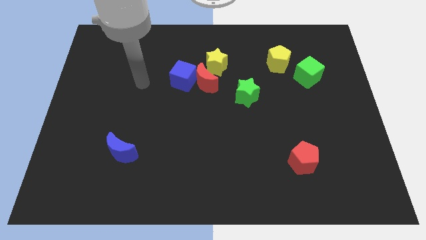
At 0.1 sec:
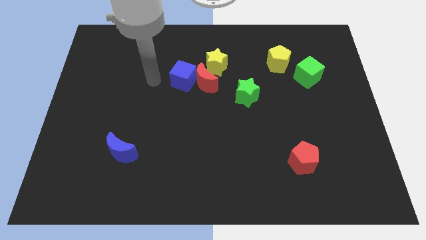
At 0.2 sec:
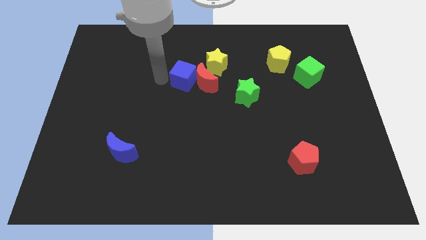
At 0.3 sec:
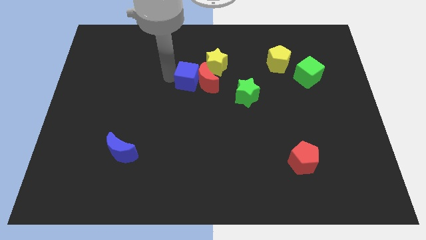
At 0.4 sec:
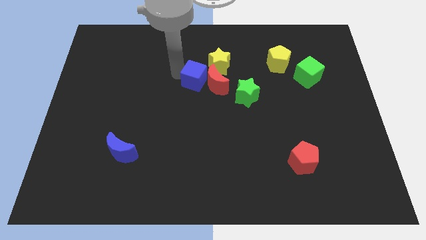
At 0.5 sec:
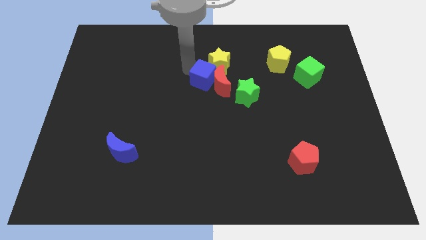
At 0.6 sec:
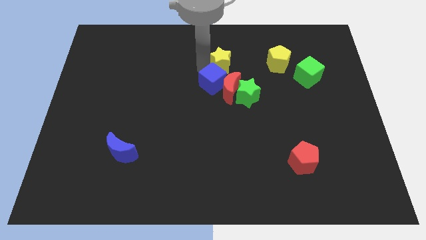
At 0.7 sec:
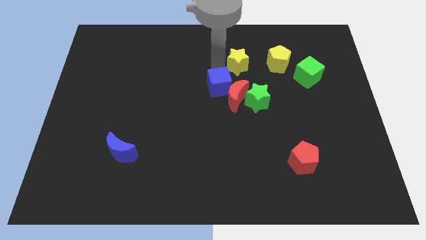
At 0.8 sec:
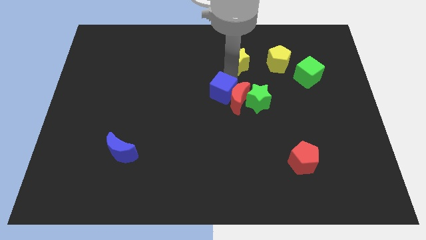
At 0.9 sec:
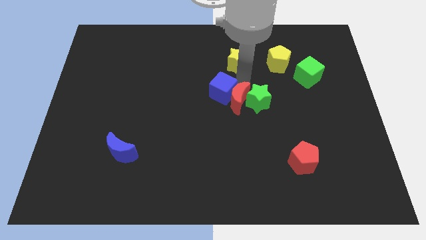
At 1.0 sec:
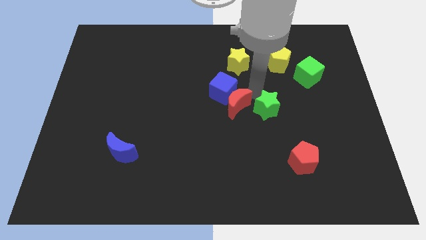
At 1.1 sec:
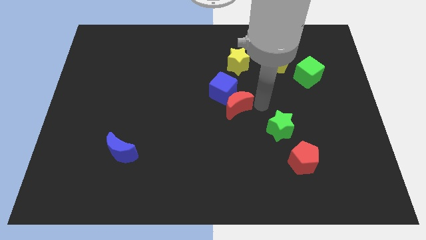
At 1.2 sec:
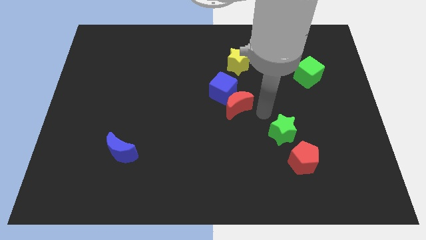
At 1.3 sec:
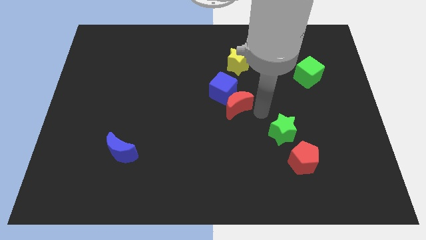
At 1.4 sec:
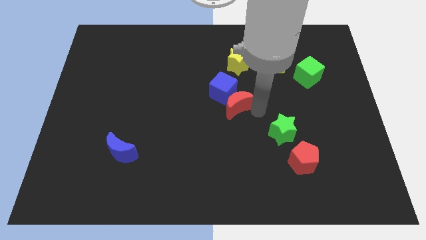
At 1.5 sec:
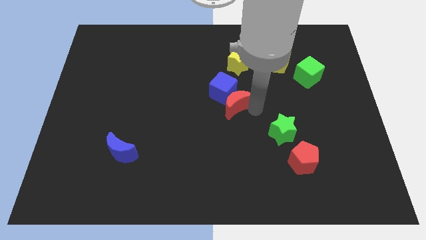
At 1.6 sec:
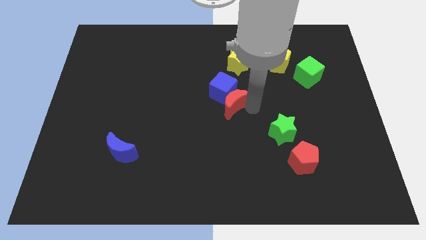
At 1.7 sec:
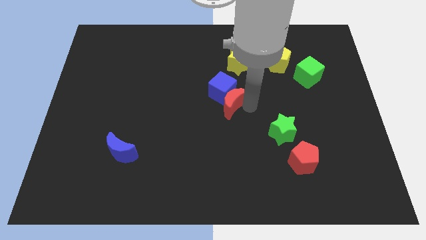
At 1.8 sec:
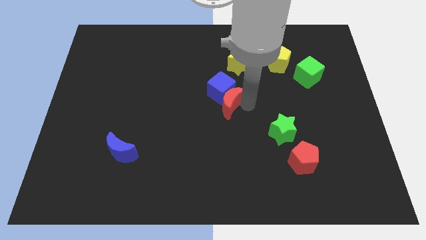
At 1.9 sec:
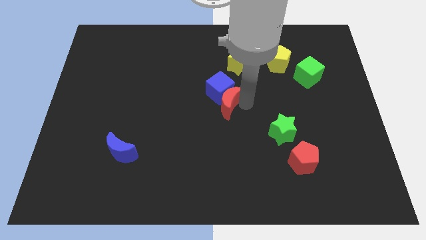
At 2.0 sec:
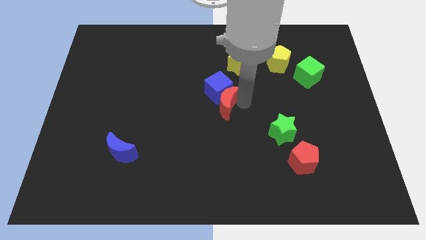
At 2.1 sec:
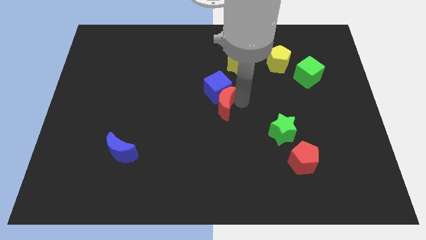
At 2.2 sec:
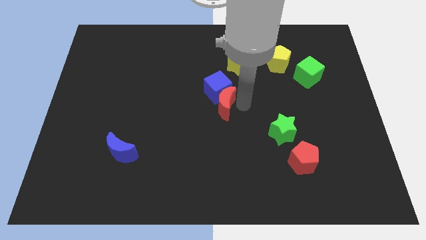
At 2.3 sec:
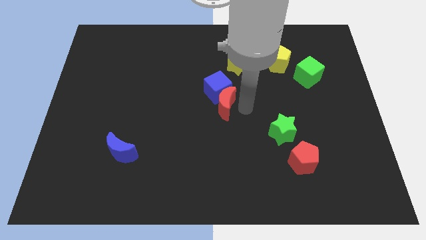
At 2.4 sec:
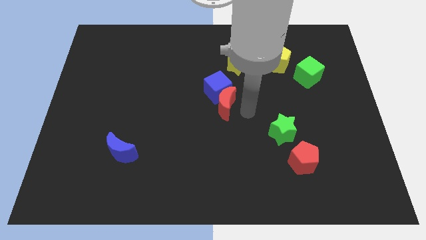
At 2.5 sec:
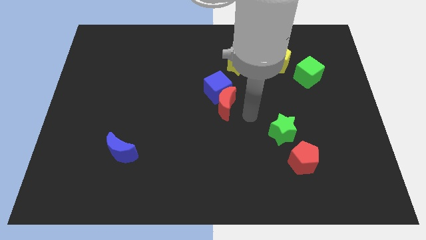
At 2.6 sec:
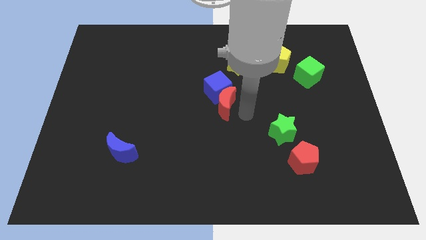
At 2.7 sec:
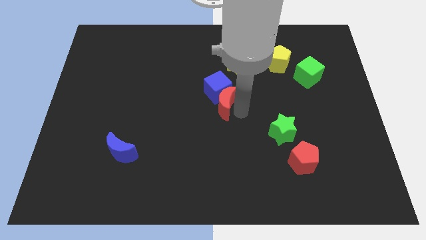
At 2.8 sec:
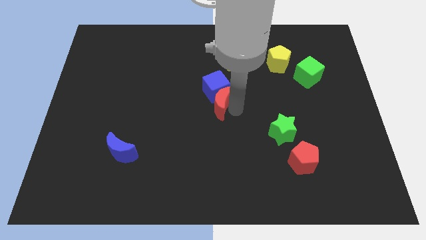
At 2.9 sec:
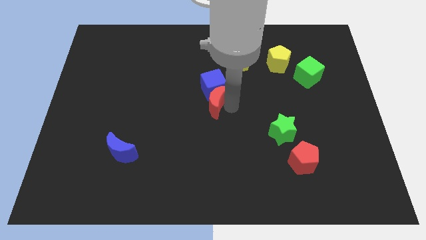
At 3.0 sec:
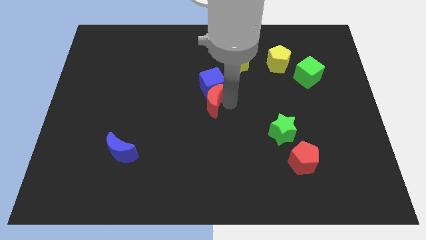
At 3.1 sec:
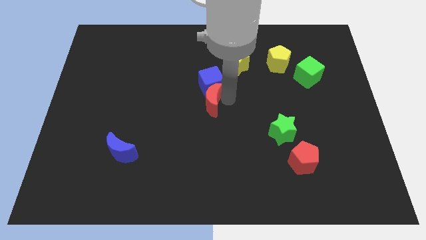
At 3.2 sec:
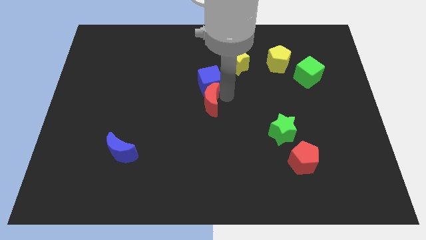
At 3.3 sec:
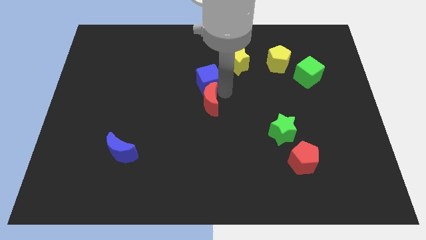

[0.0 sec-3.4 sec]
move the red moon away from the blue cube and yellow star

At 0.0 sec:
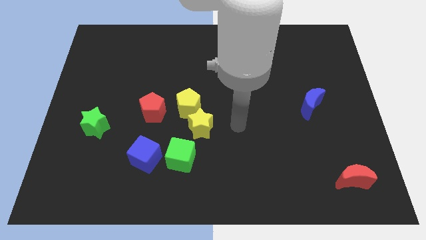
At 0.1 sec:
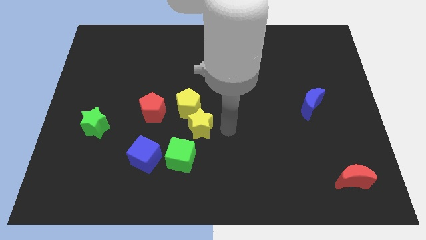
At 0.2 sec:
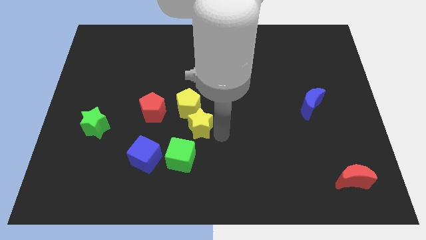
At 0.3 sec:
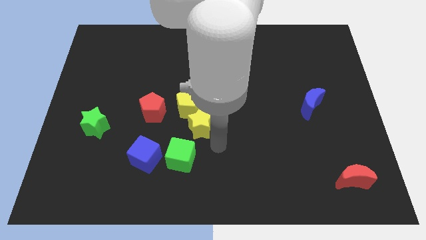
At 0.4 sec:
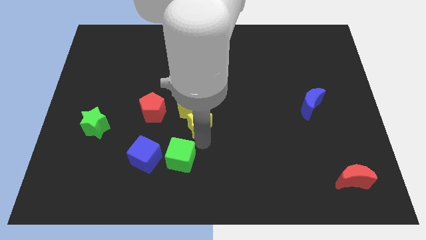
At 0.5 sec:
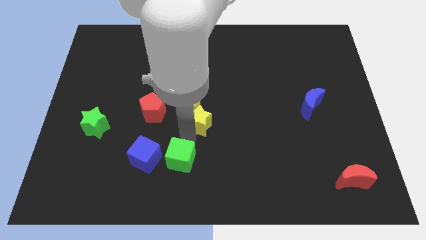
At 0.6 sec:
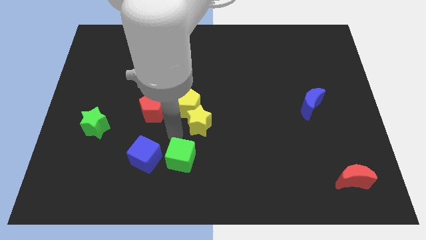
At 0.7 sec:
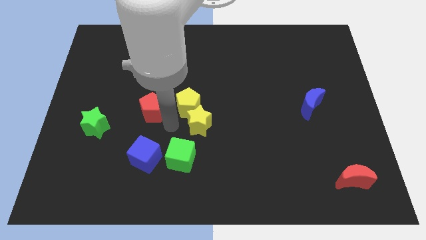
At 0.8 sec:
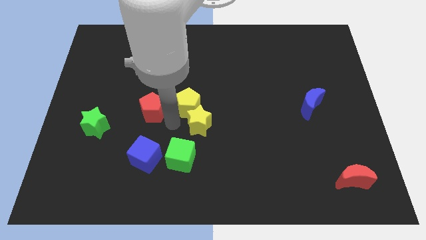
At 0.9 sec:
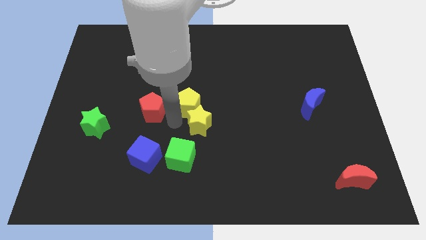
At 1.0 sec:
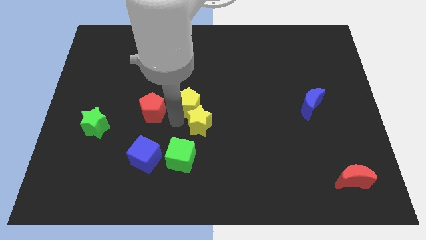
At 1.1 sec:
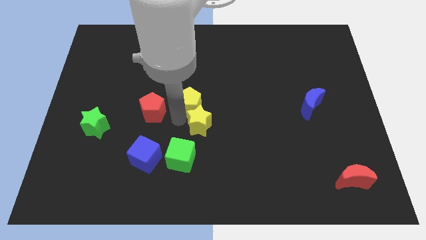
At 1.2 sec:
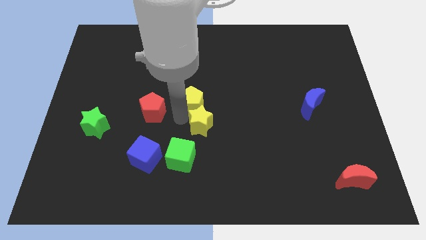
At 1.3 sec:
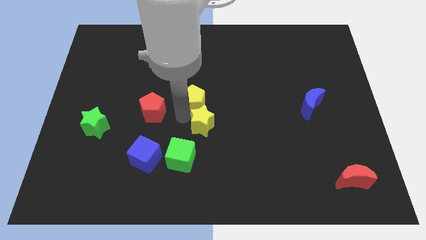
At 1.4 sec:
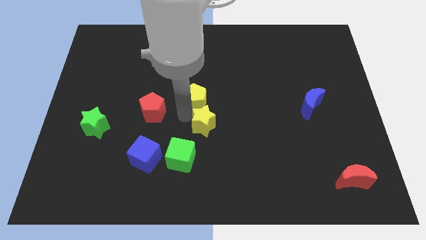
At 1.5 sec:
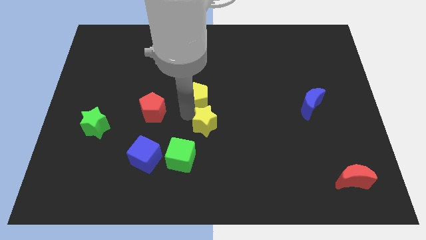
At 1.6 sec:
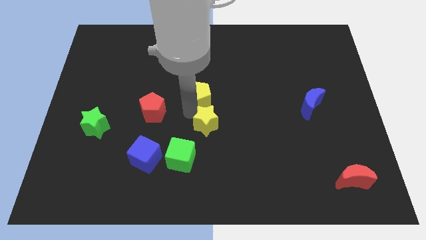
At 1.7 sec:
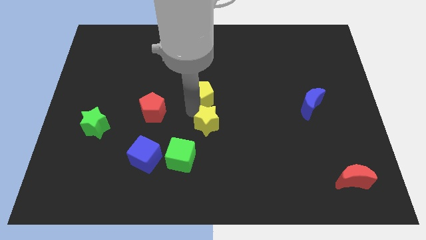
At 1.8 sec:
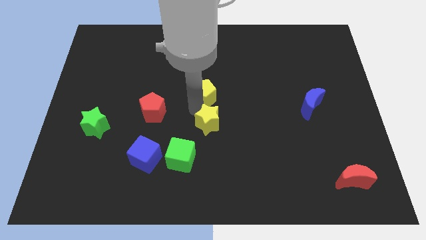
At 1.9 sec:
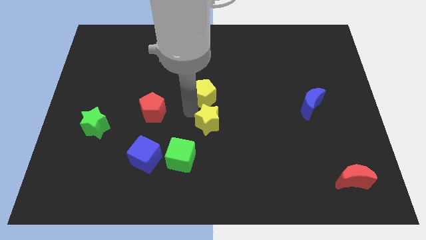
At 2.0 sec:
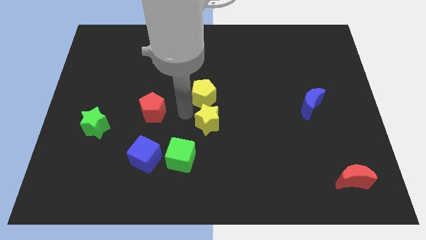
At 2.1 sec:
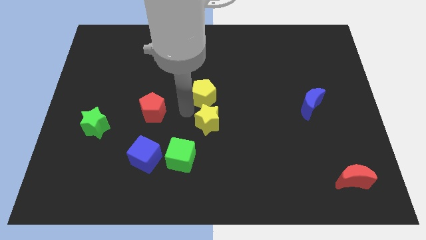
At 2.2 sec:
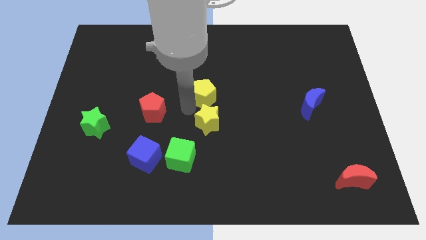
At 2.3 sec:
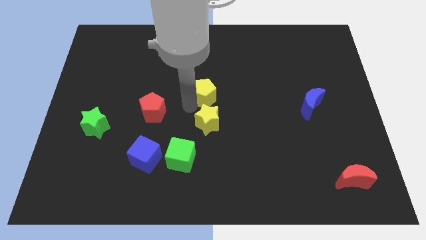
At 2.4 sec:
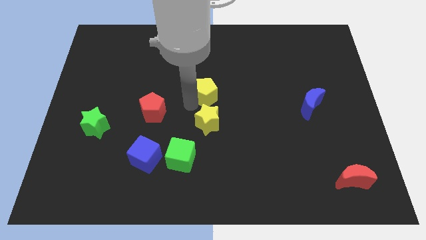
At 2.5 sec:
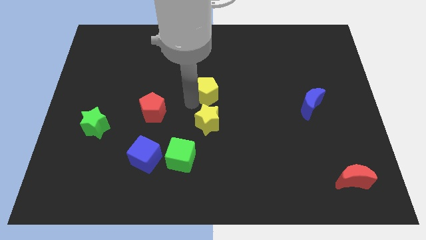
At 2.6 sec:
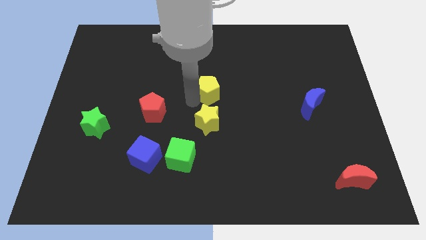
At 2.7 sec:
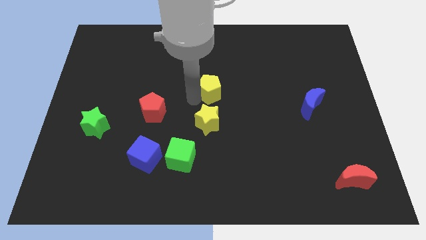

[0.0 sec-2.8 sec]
pull the yellow pentagon apart from the yellow star and red pentagon

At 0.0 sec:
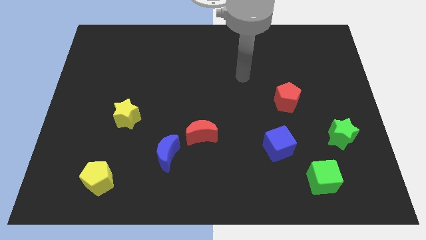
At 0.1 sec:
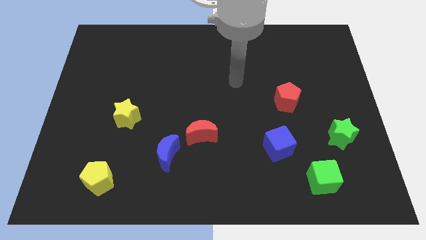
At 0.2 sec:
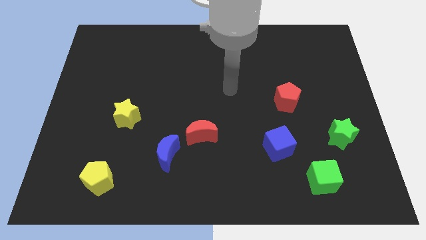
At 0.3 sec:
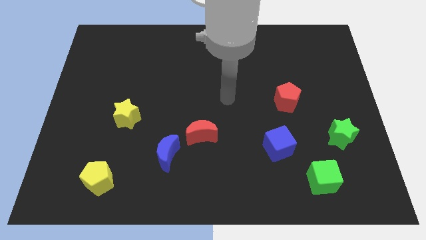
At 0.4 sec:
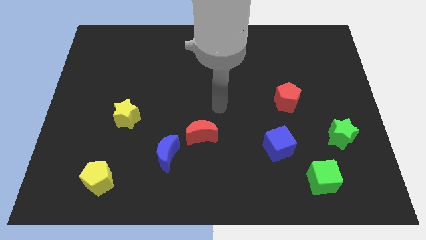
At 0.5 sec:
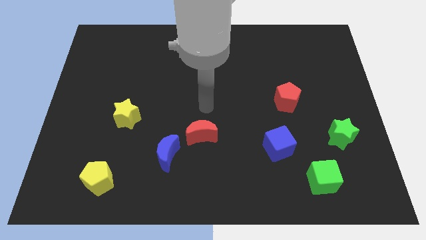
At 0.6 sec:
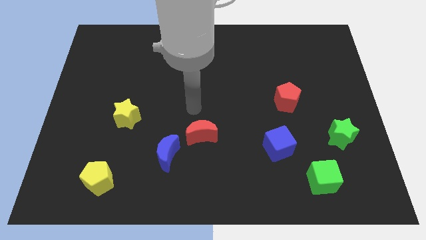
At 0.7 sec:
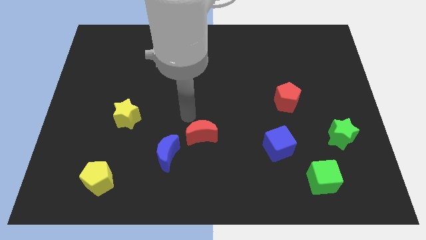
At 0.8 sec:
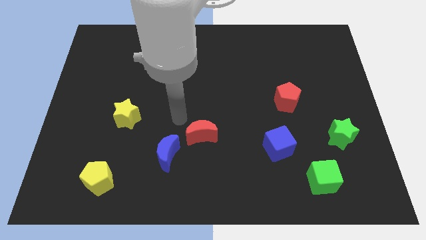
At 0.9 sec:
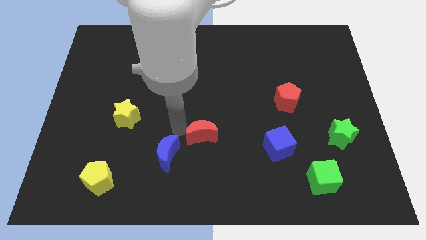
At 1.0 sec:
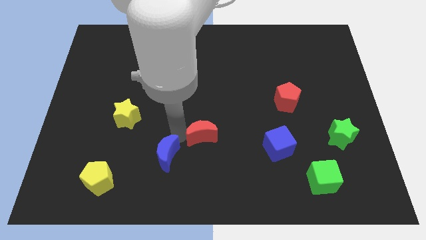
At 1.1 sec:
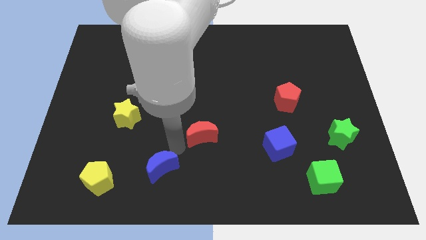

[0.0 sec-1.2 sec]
pull the red moon apart from the blue moon

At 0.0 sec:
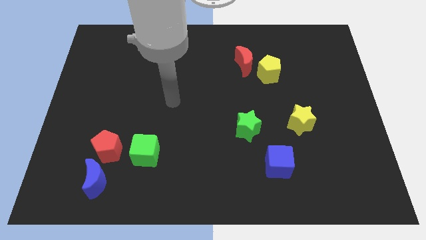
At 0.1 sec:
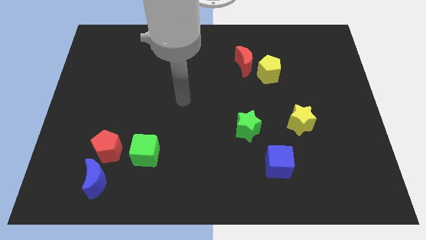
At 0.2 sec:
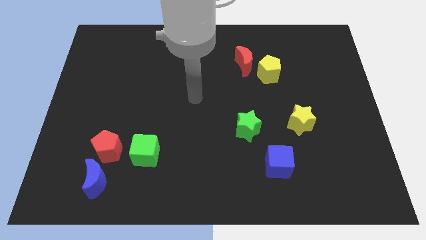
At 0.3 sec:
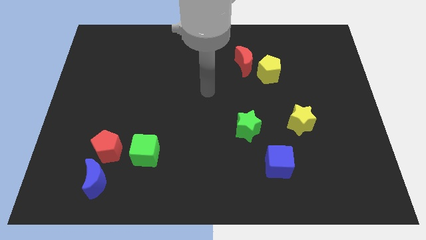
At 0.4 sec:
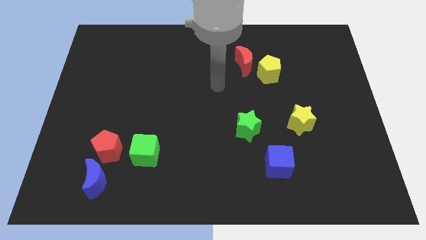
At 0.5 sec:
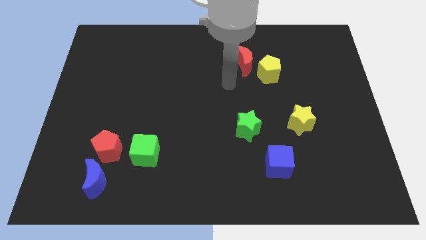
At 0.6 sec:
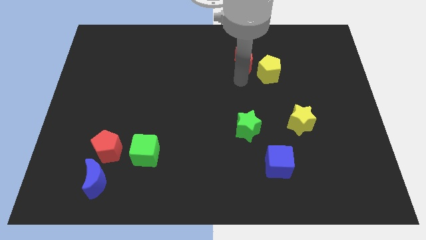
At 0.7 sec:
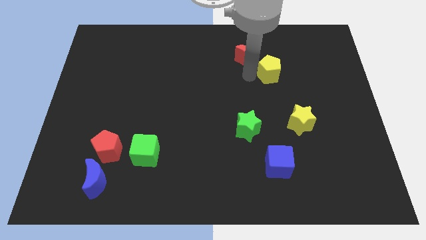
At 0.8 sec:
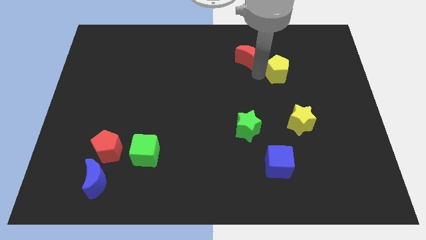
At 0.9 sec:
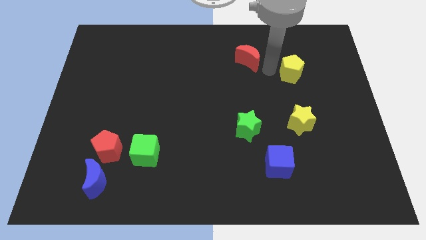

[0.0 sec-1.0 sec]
separate the red moon from the yellow pentagon

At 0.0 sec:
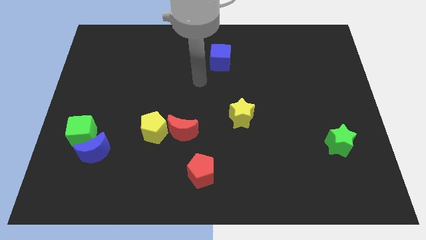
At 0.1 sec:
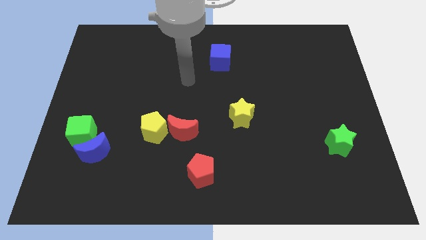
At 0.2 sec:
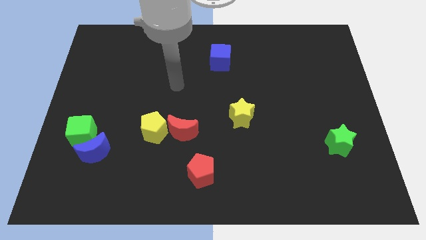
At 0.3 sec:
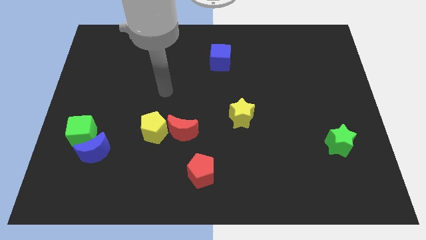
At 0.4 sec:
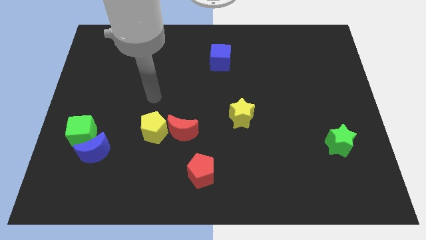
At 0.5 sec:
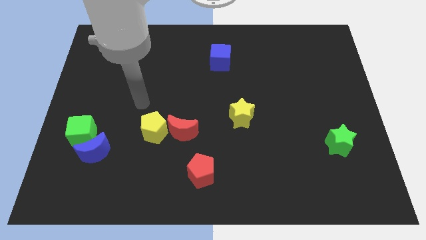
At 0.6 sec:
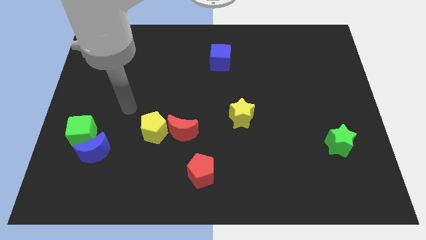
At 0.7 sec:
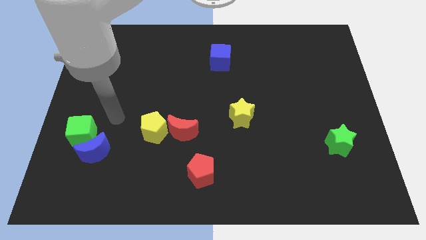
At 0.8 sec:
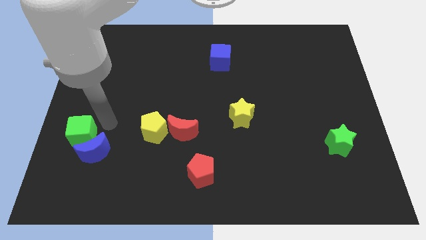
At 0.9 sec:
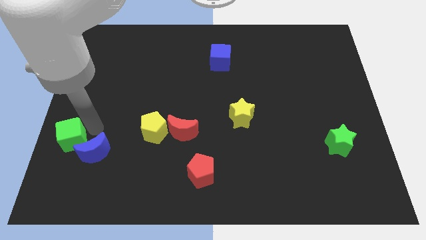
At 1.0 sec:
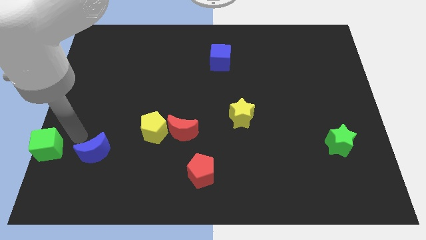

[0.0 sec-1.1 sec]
move the blue moon away from the green cube
